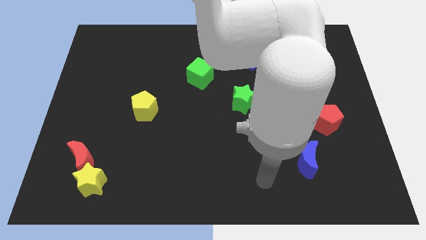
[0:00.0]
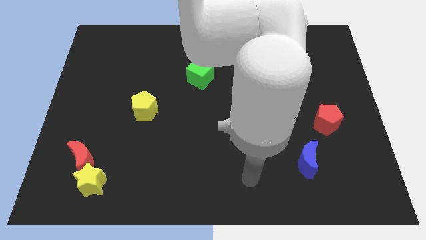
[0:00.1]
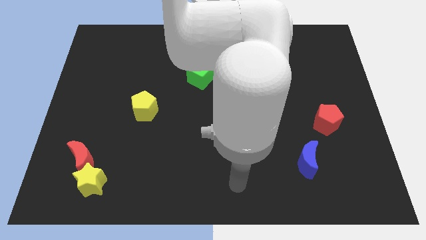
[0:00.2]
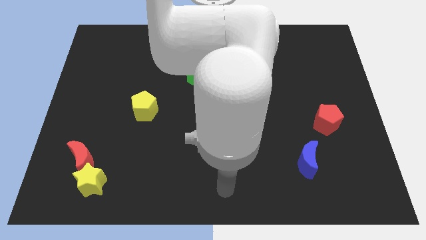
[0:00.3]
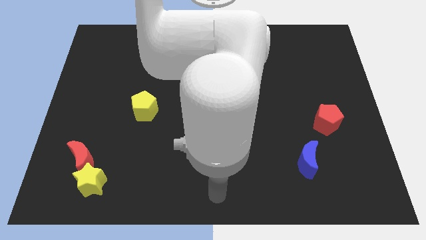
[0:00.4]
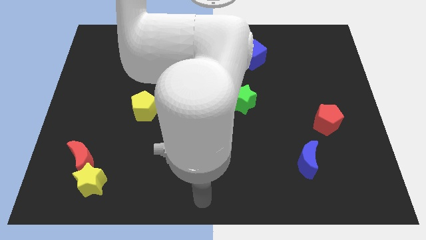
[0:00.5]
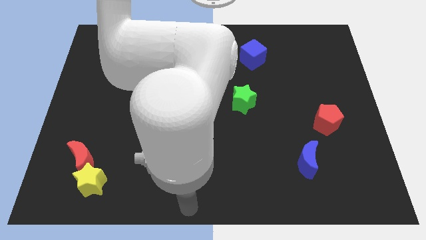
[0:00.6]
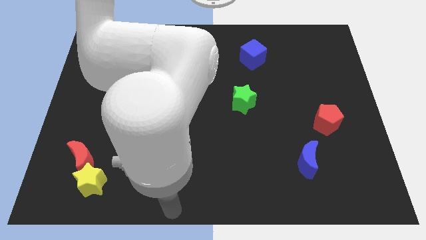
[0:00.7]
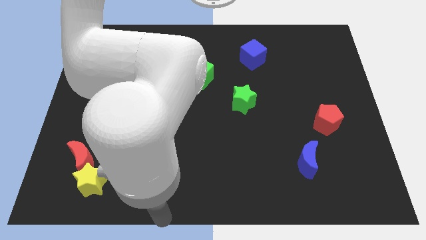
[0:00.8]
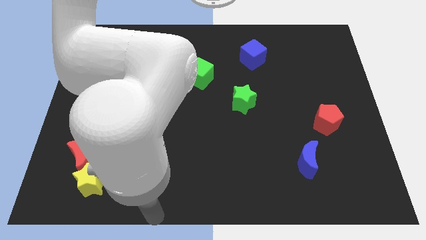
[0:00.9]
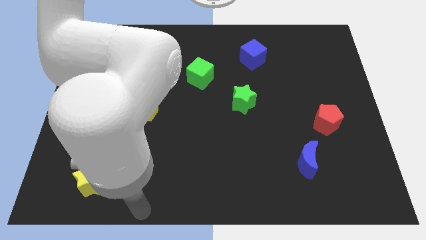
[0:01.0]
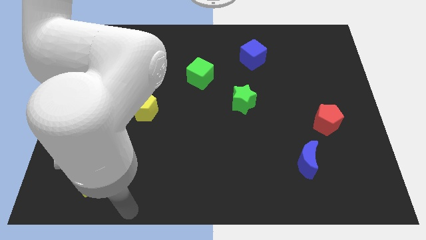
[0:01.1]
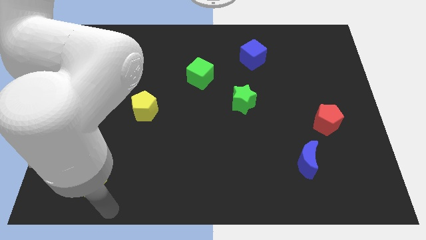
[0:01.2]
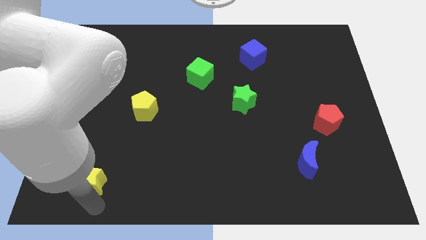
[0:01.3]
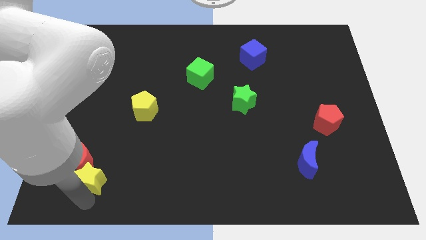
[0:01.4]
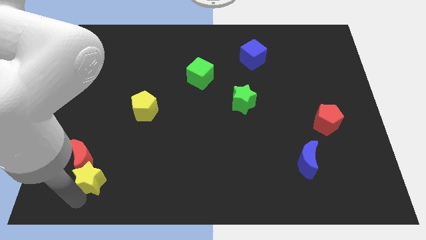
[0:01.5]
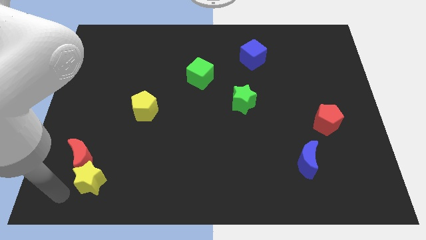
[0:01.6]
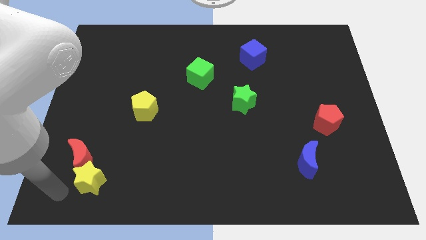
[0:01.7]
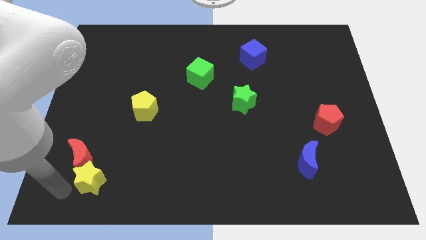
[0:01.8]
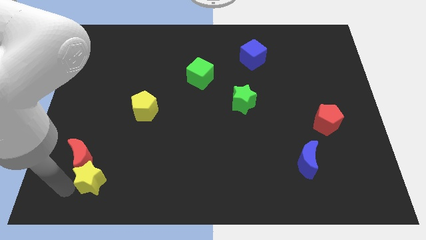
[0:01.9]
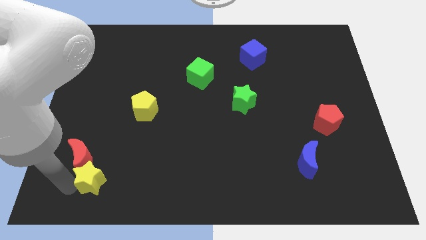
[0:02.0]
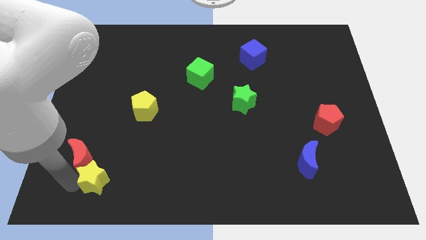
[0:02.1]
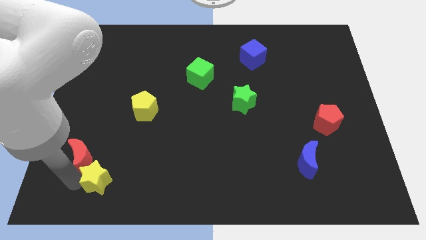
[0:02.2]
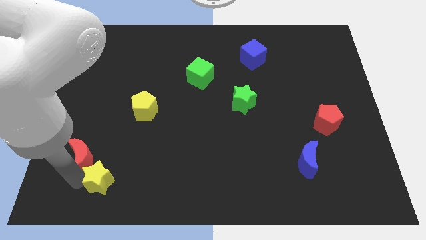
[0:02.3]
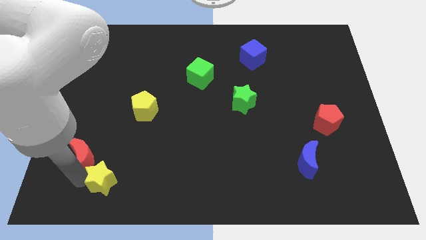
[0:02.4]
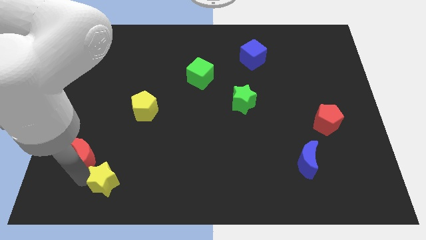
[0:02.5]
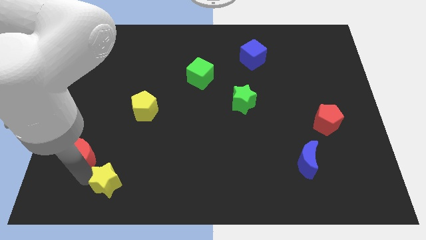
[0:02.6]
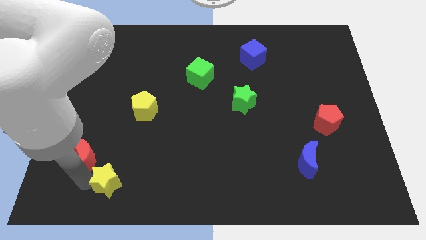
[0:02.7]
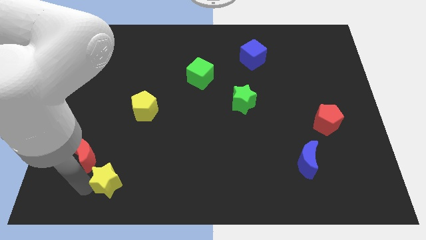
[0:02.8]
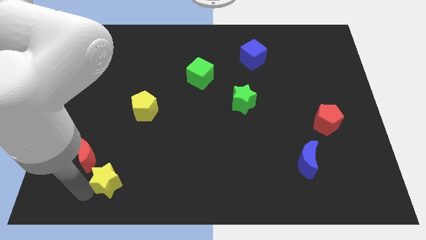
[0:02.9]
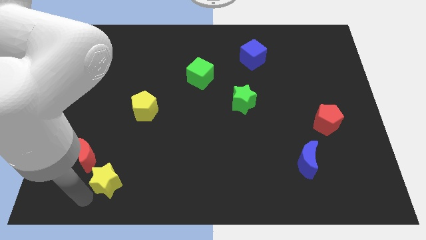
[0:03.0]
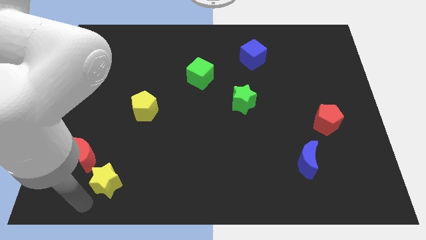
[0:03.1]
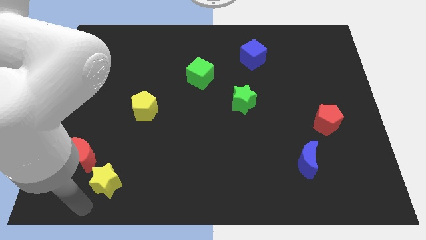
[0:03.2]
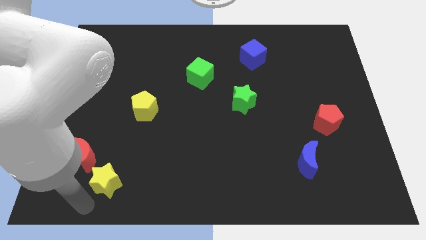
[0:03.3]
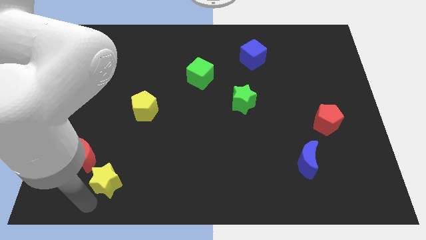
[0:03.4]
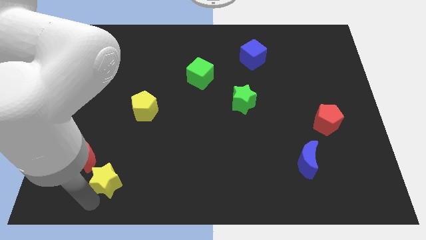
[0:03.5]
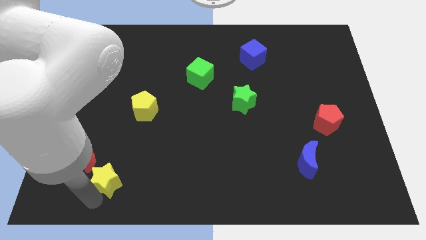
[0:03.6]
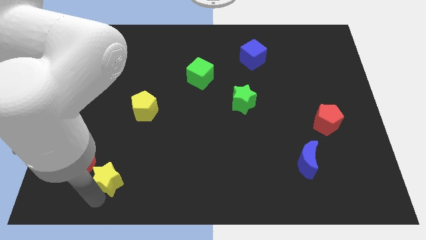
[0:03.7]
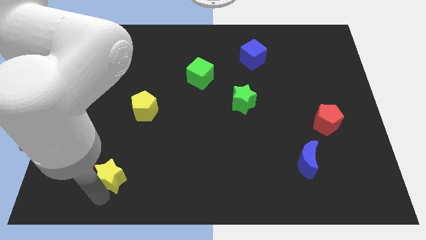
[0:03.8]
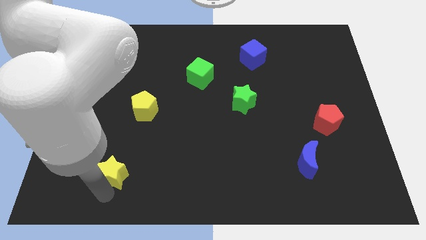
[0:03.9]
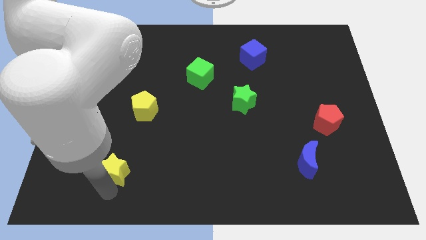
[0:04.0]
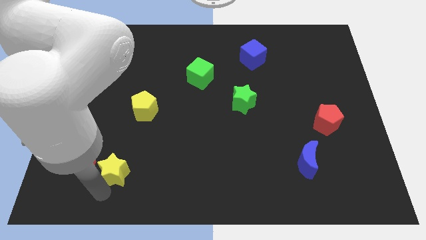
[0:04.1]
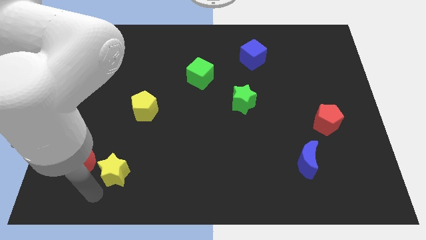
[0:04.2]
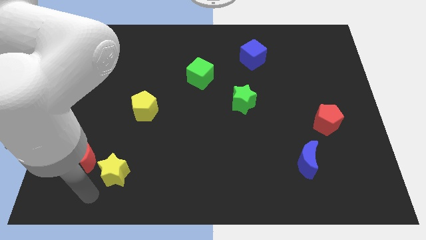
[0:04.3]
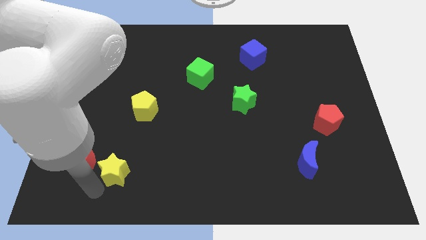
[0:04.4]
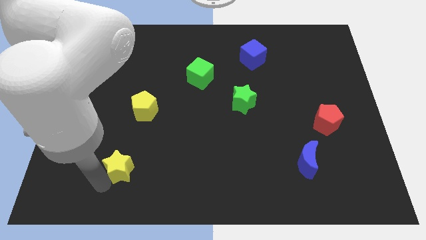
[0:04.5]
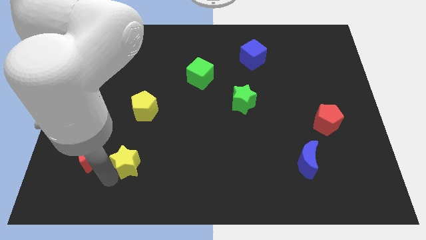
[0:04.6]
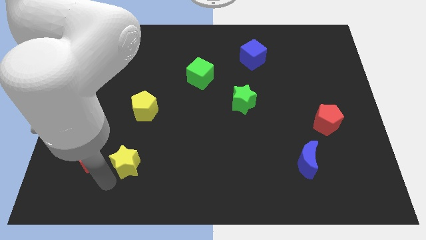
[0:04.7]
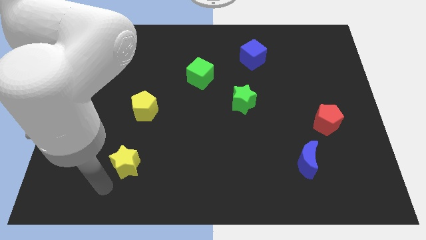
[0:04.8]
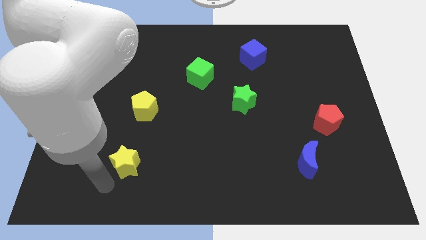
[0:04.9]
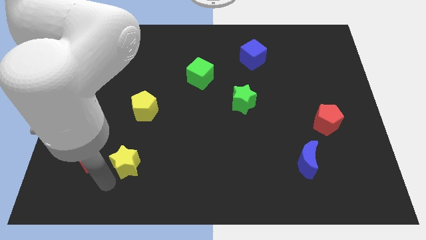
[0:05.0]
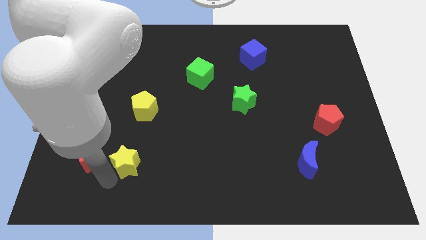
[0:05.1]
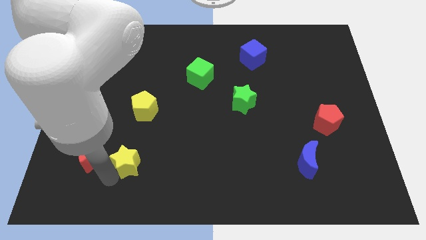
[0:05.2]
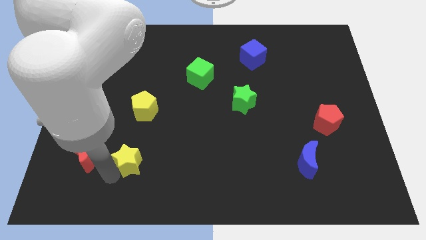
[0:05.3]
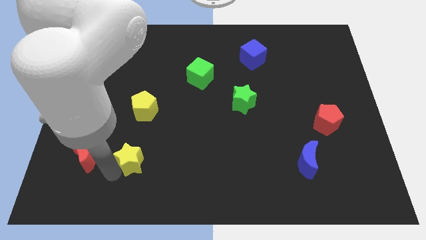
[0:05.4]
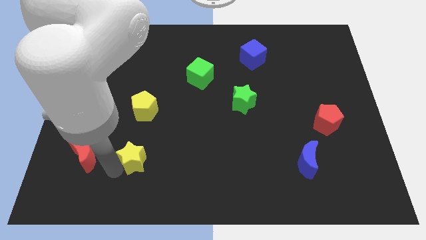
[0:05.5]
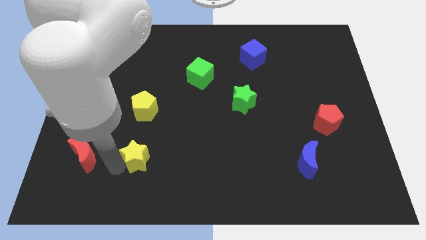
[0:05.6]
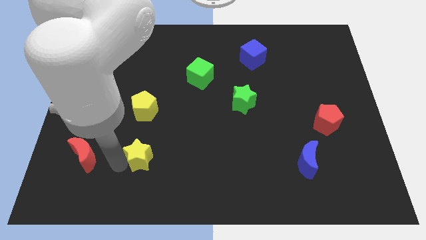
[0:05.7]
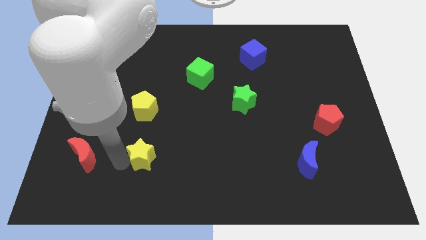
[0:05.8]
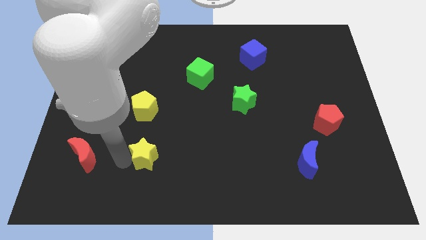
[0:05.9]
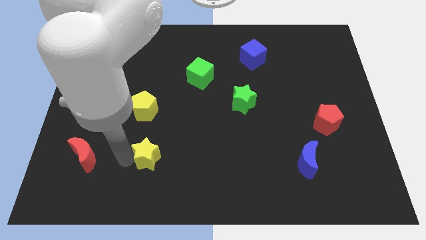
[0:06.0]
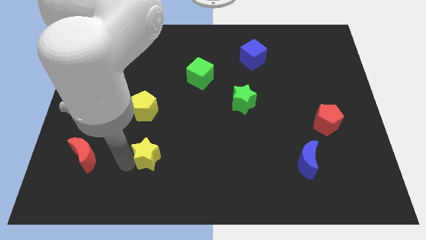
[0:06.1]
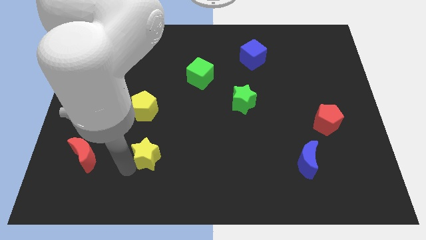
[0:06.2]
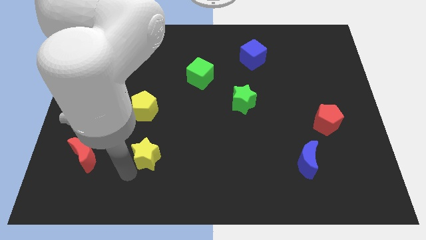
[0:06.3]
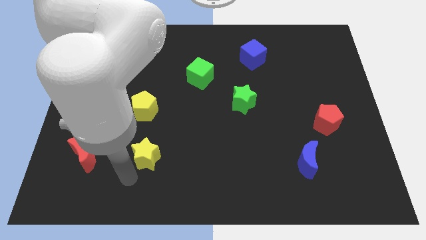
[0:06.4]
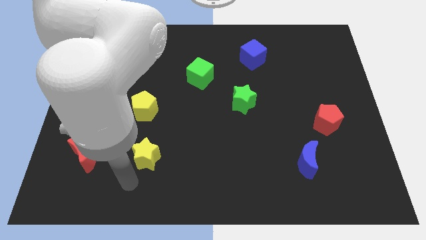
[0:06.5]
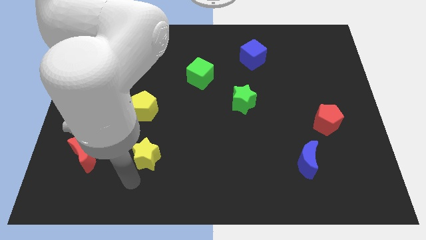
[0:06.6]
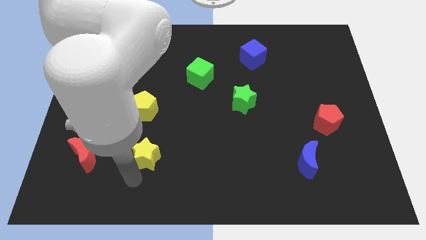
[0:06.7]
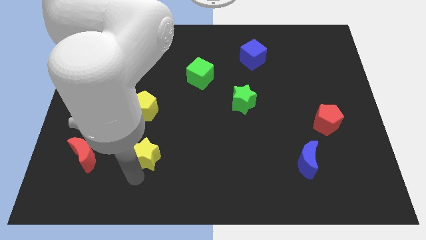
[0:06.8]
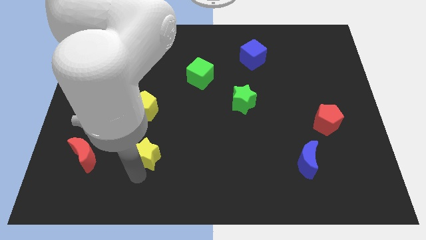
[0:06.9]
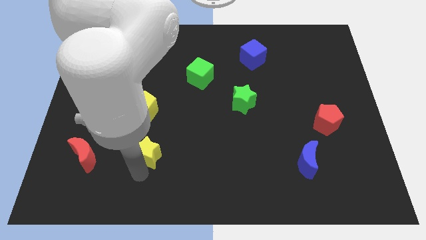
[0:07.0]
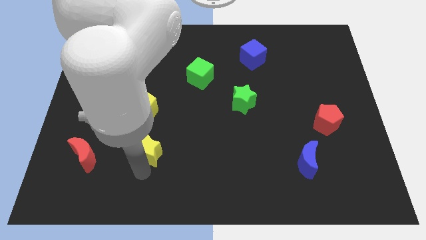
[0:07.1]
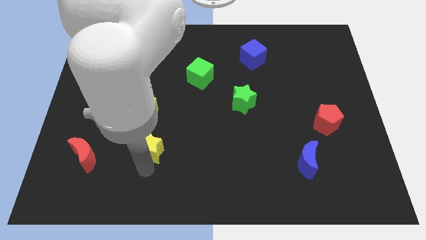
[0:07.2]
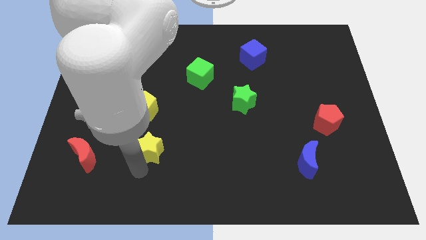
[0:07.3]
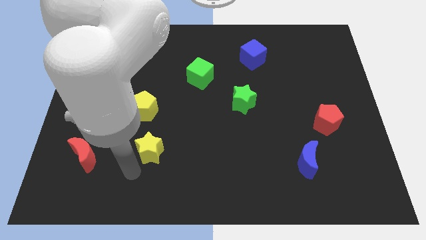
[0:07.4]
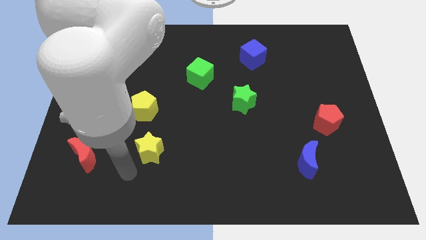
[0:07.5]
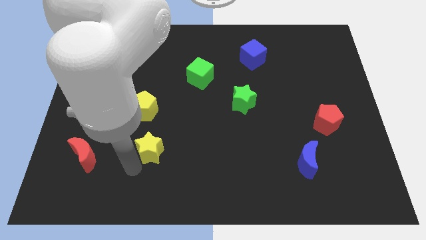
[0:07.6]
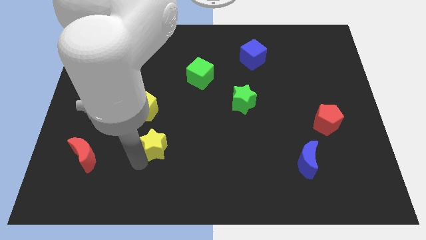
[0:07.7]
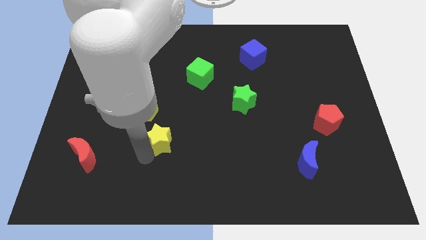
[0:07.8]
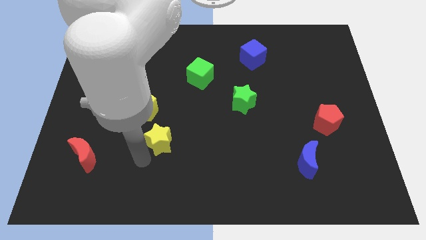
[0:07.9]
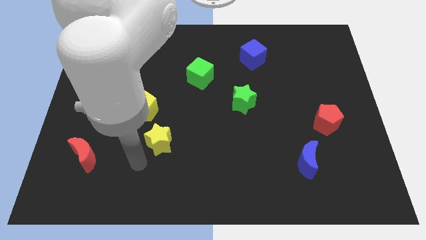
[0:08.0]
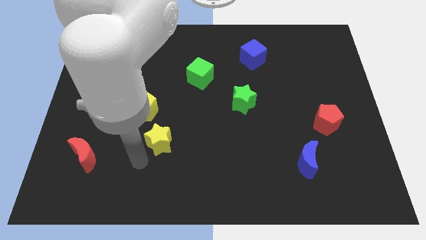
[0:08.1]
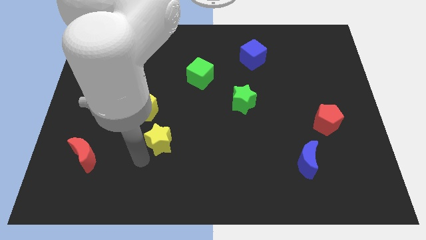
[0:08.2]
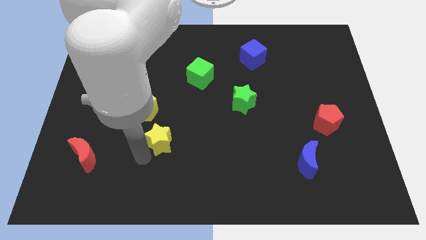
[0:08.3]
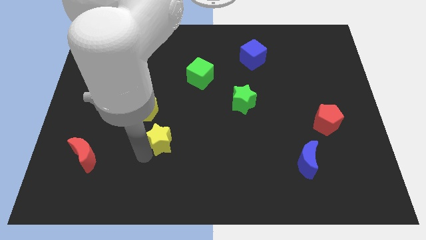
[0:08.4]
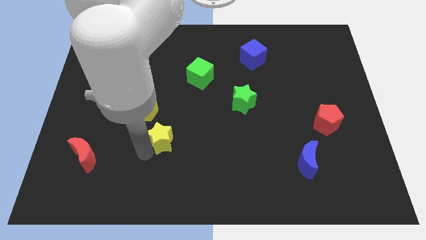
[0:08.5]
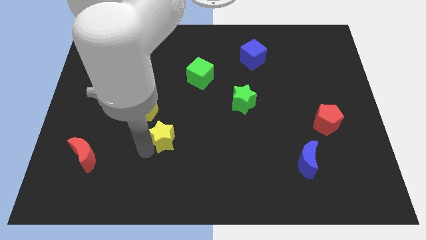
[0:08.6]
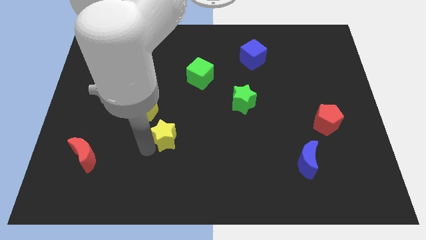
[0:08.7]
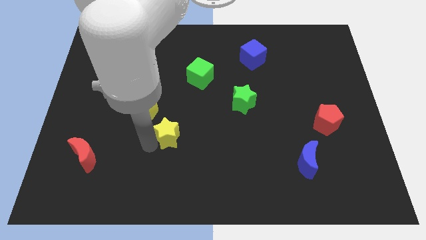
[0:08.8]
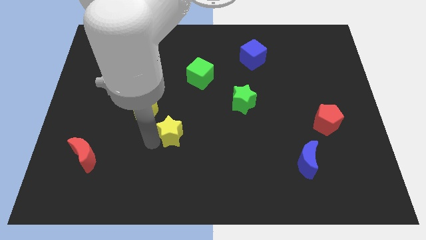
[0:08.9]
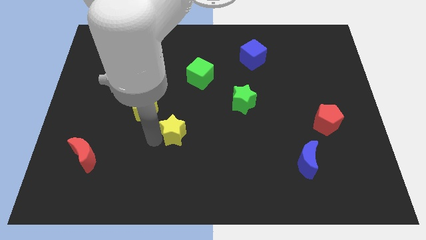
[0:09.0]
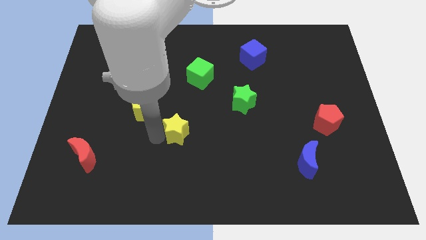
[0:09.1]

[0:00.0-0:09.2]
move the yellow star diagonally up and to the right
